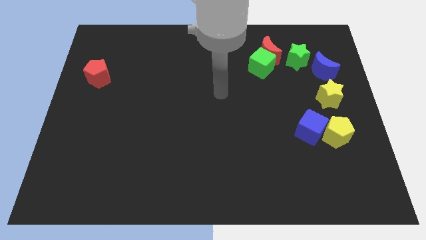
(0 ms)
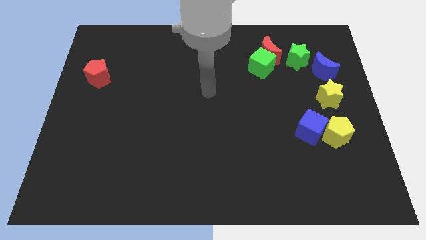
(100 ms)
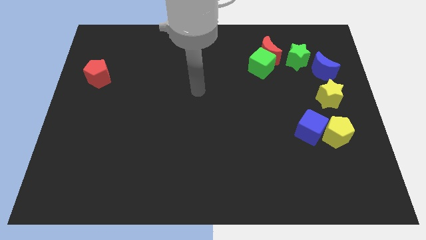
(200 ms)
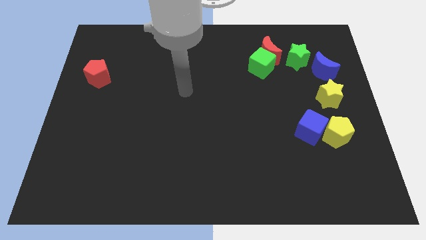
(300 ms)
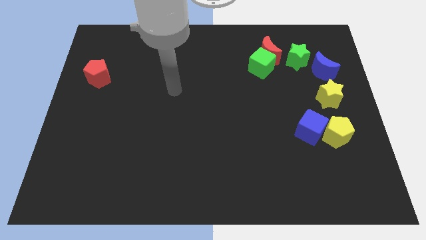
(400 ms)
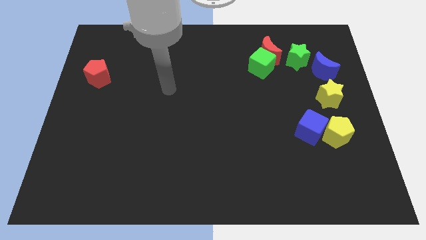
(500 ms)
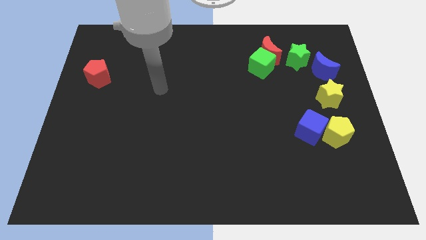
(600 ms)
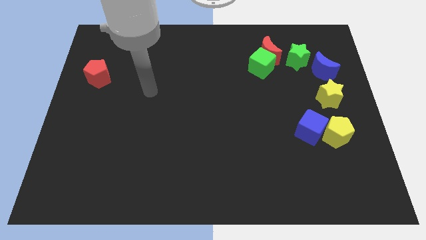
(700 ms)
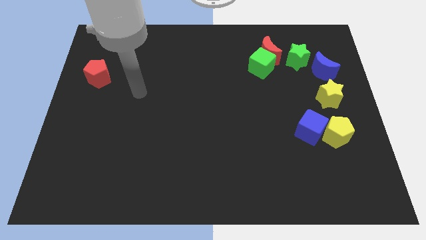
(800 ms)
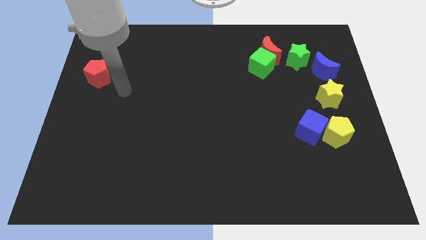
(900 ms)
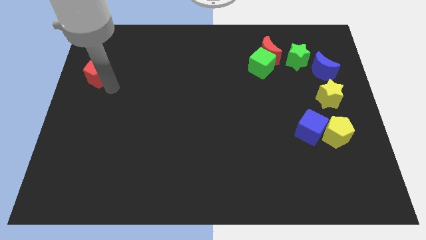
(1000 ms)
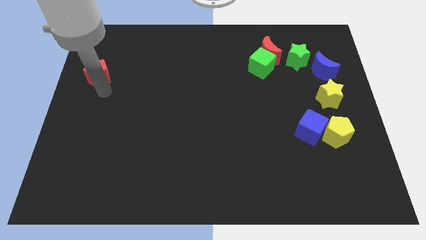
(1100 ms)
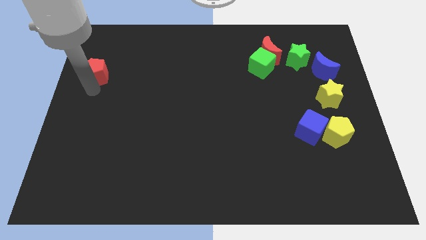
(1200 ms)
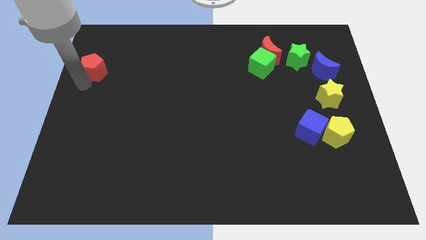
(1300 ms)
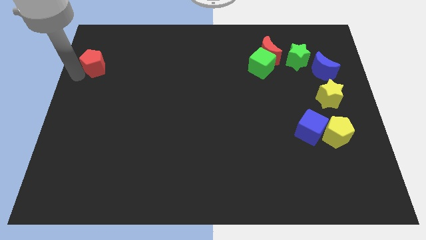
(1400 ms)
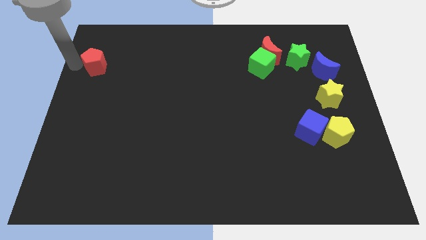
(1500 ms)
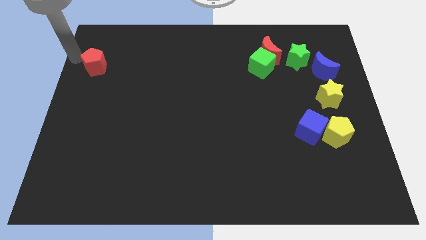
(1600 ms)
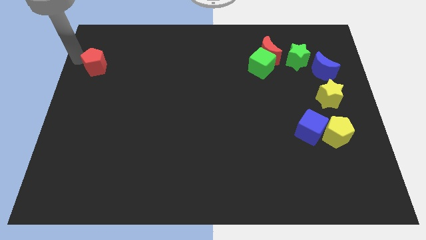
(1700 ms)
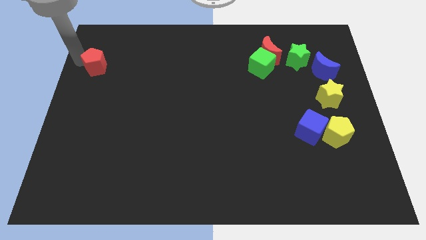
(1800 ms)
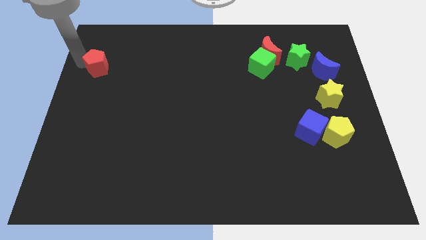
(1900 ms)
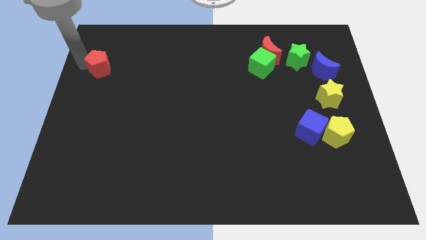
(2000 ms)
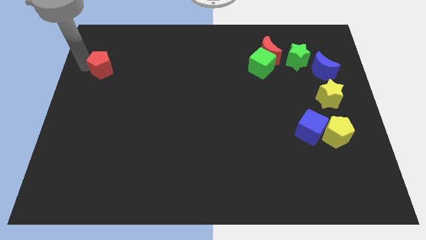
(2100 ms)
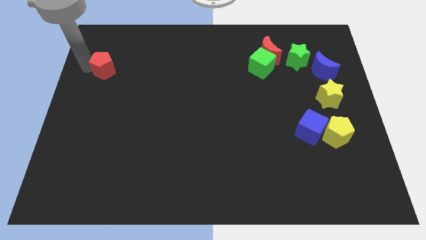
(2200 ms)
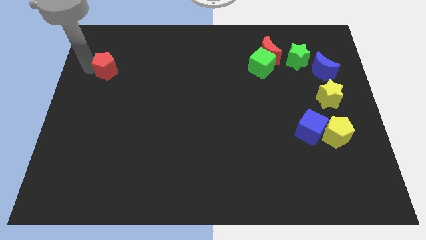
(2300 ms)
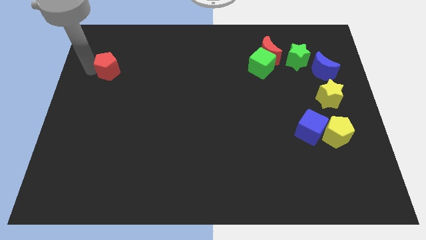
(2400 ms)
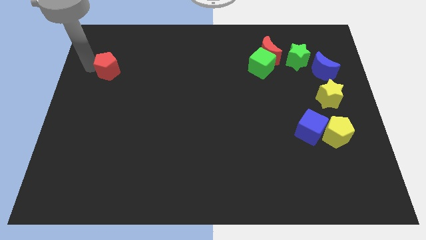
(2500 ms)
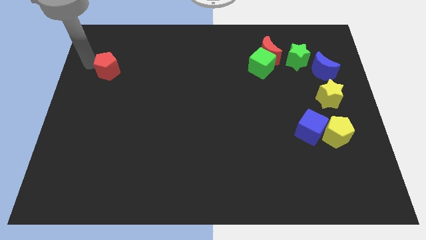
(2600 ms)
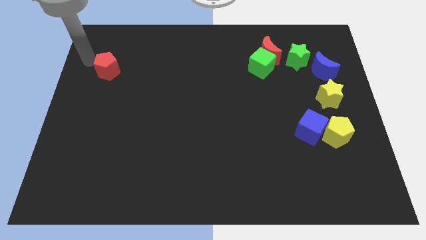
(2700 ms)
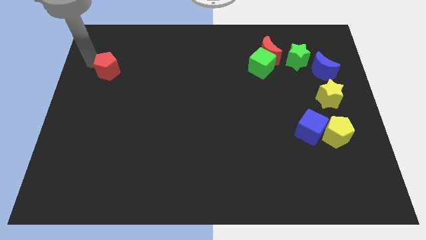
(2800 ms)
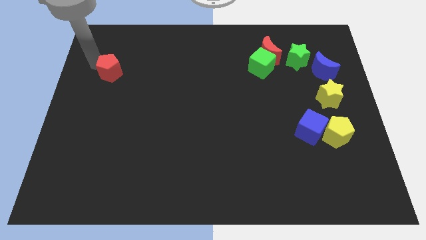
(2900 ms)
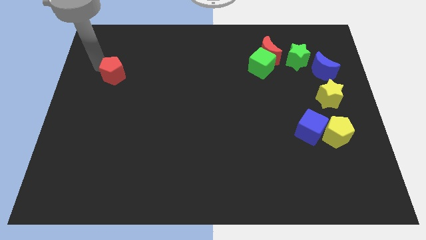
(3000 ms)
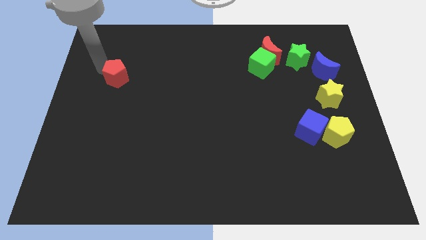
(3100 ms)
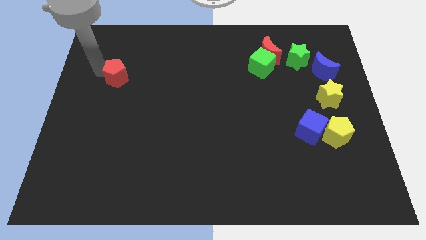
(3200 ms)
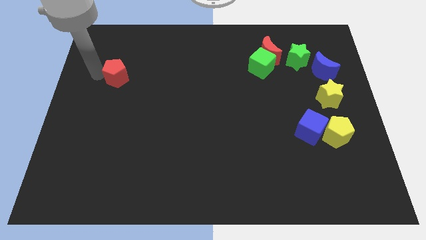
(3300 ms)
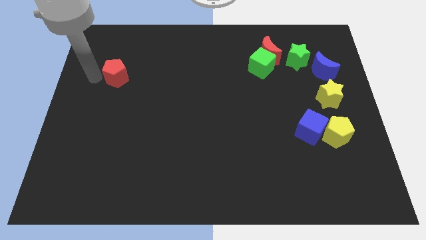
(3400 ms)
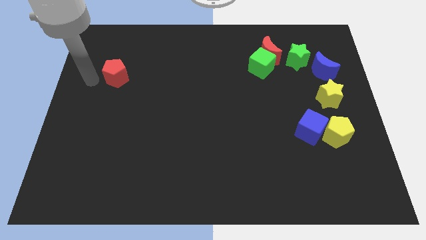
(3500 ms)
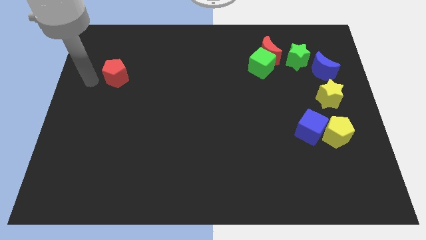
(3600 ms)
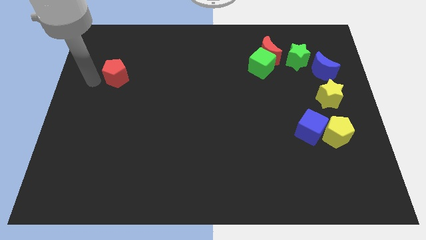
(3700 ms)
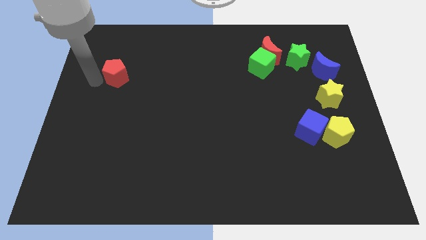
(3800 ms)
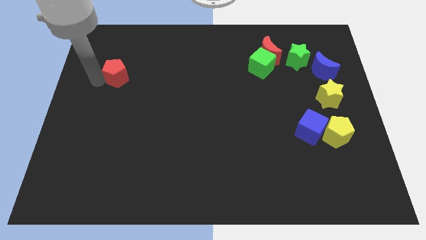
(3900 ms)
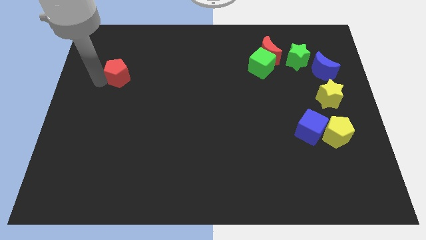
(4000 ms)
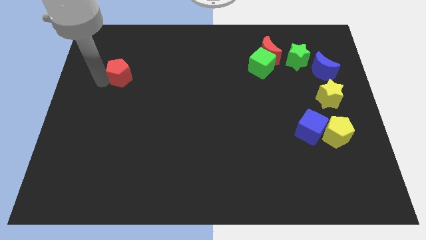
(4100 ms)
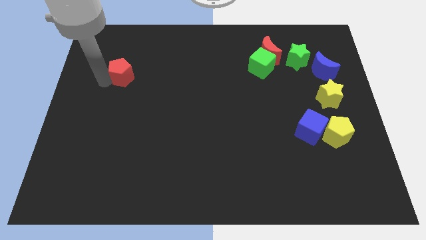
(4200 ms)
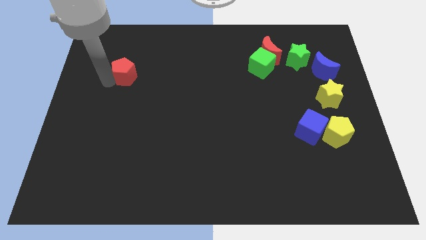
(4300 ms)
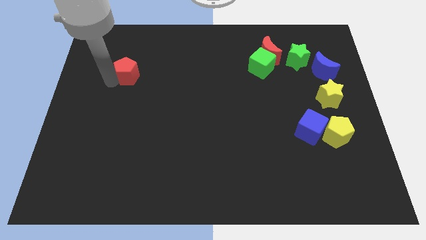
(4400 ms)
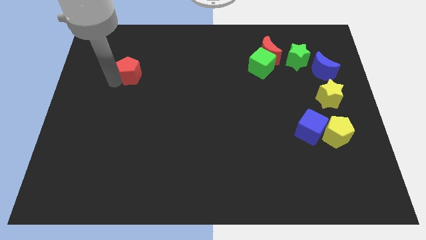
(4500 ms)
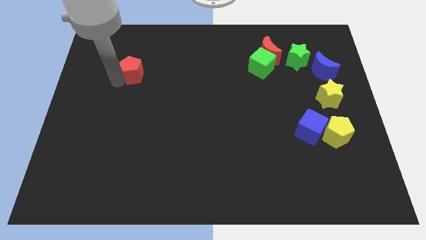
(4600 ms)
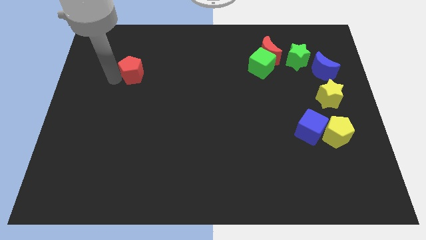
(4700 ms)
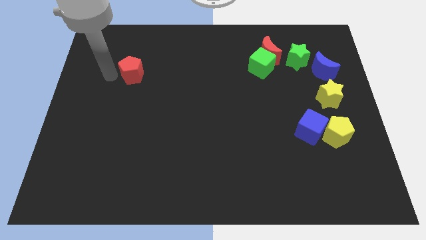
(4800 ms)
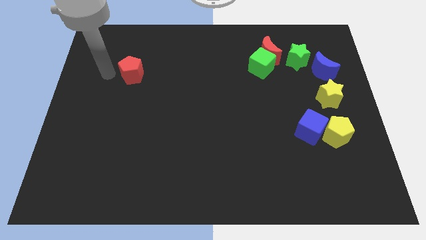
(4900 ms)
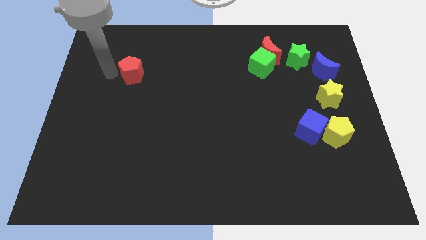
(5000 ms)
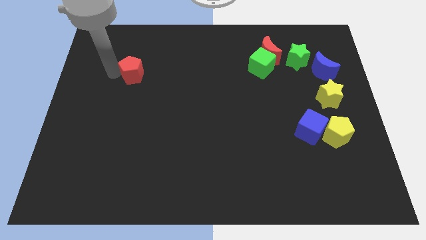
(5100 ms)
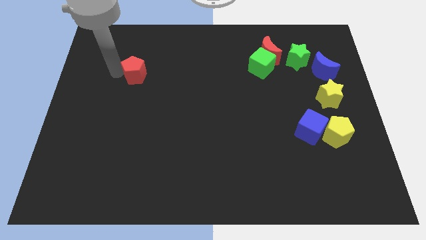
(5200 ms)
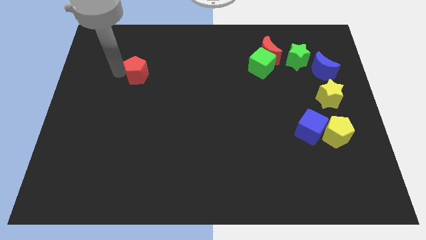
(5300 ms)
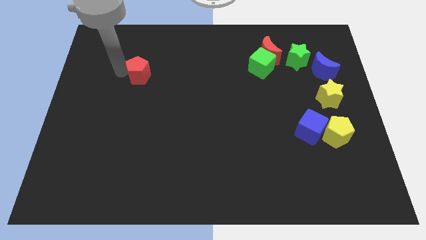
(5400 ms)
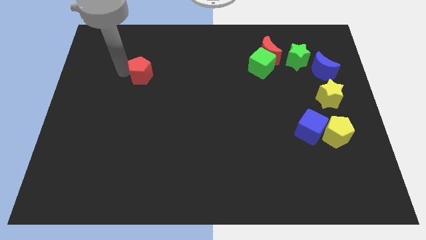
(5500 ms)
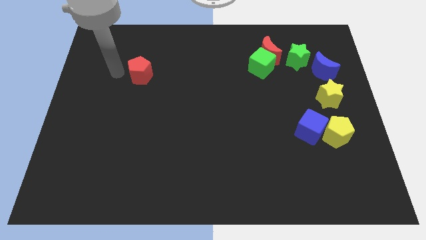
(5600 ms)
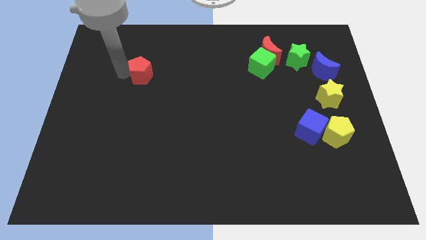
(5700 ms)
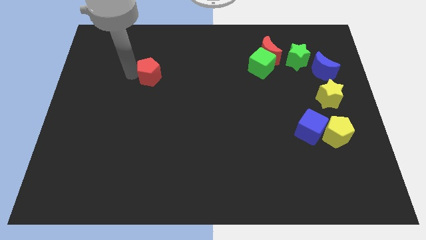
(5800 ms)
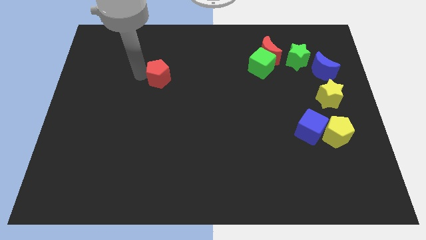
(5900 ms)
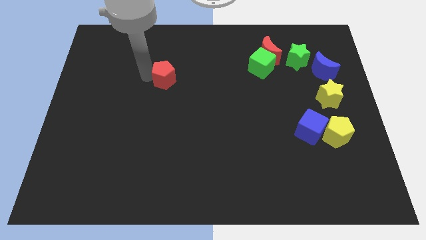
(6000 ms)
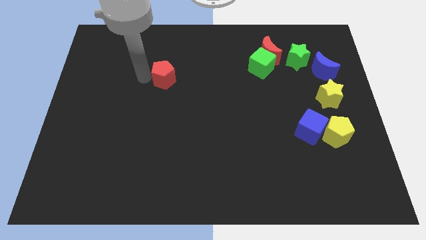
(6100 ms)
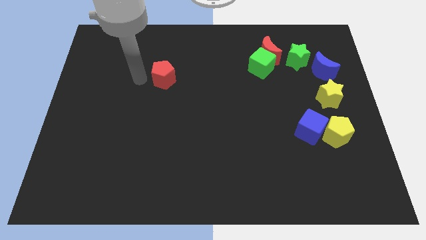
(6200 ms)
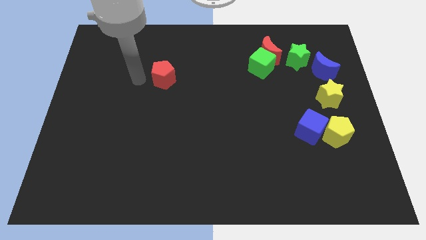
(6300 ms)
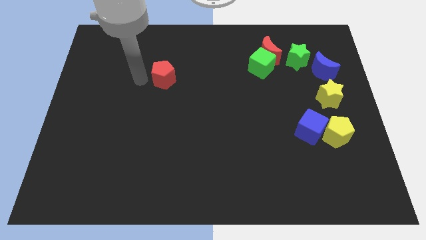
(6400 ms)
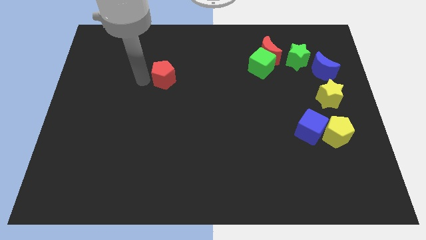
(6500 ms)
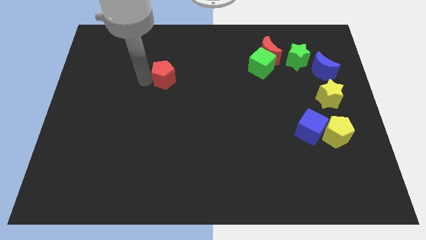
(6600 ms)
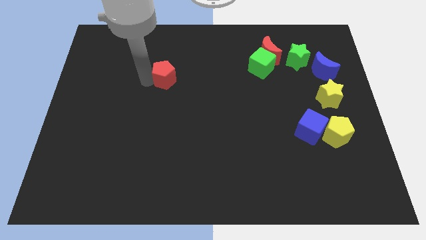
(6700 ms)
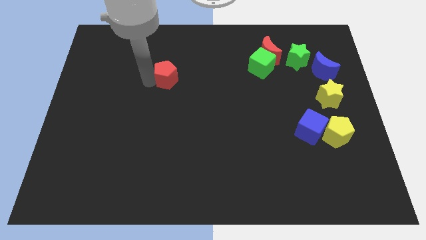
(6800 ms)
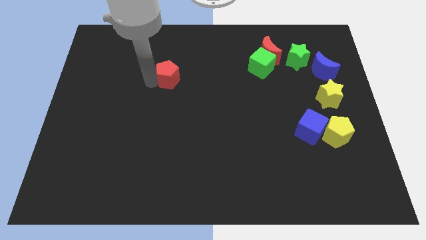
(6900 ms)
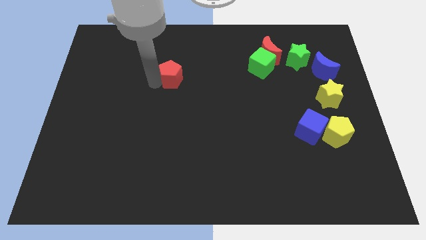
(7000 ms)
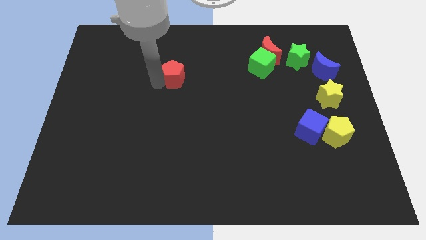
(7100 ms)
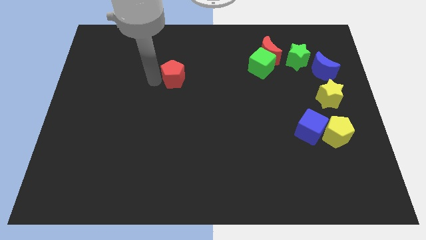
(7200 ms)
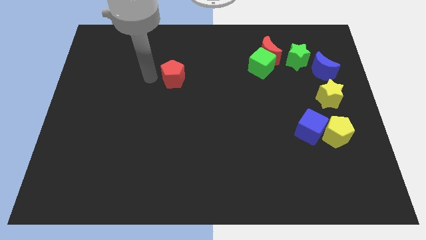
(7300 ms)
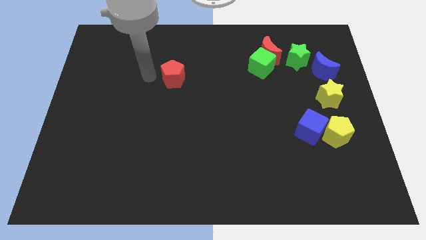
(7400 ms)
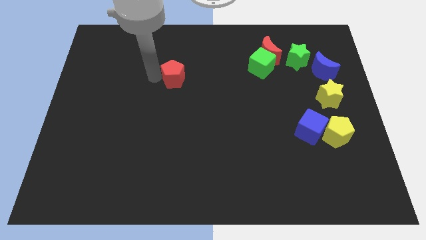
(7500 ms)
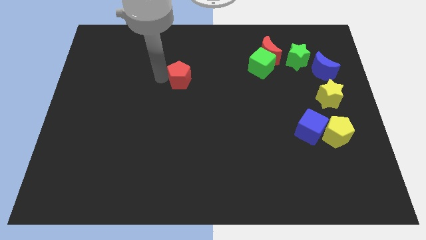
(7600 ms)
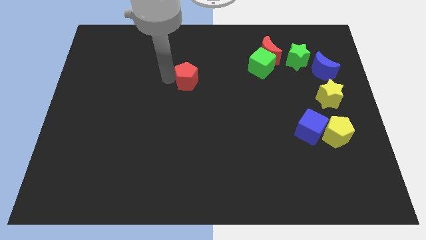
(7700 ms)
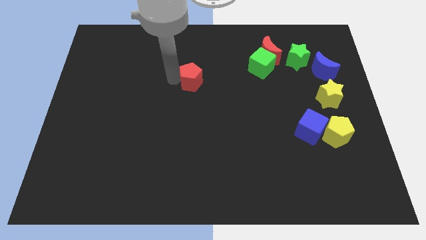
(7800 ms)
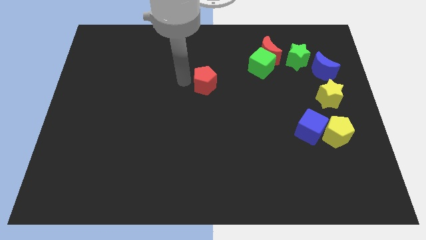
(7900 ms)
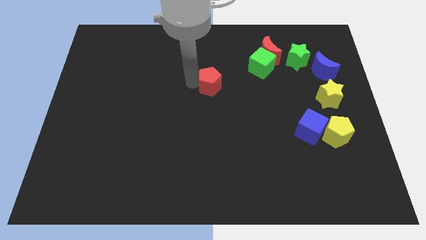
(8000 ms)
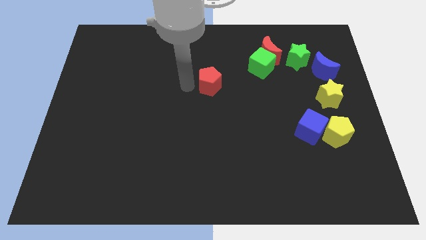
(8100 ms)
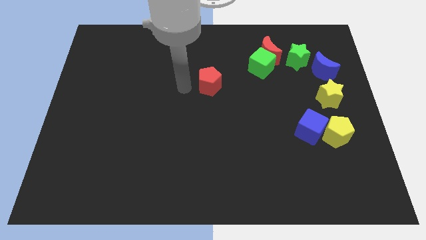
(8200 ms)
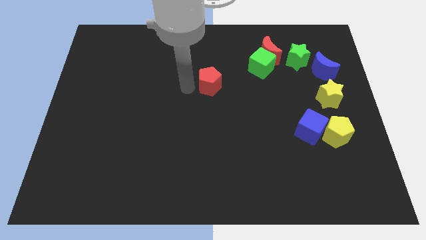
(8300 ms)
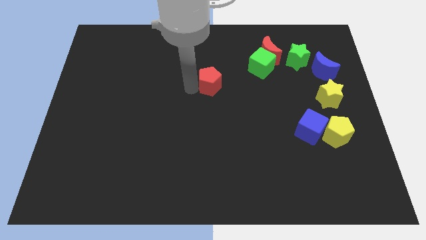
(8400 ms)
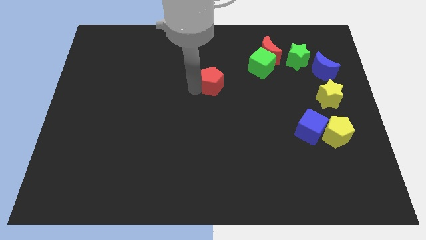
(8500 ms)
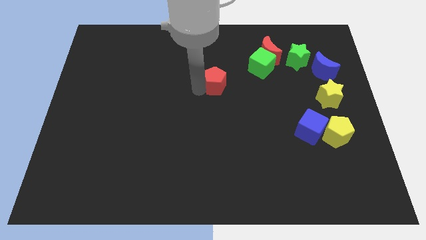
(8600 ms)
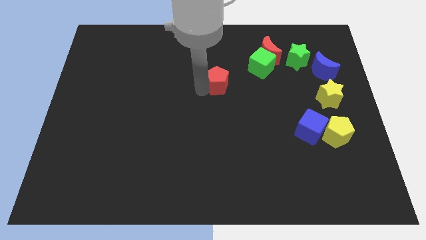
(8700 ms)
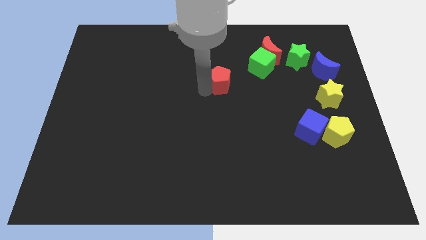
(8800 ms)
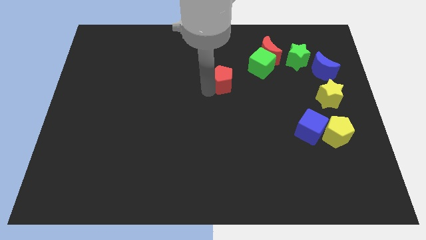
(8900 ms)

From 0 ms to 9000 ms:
put the red pentagon to the bottom left of the green cube
